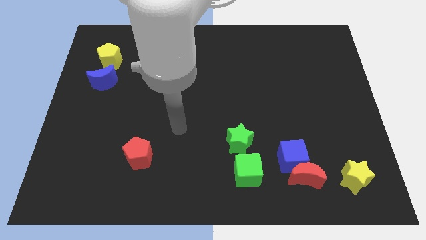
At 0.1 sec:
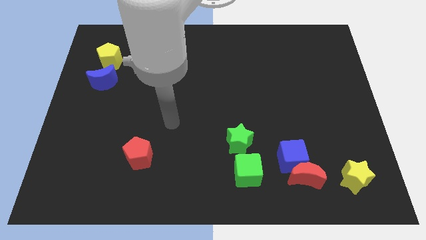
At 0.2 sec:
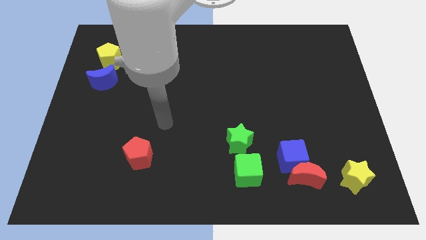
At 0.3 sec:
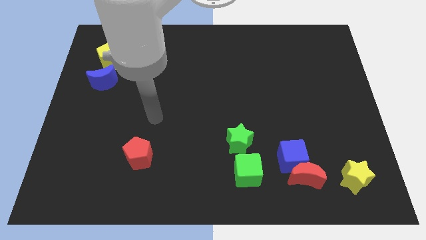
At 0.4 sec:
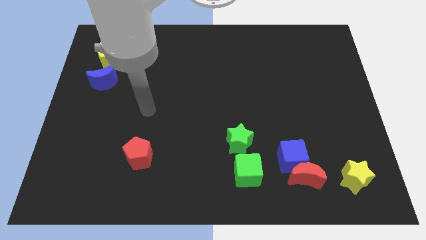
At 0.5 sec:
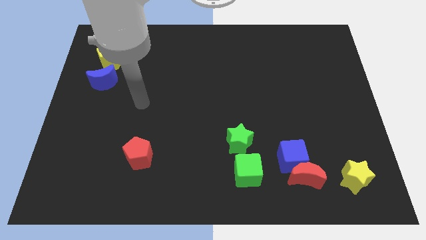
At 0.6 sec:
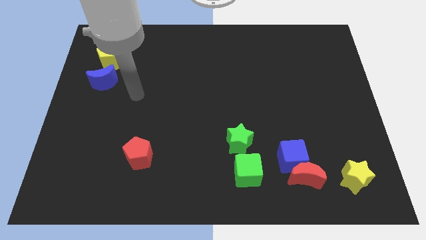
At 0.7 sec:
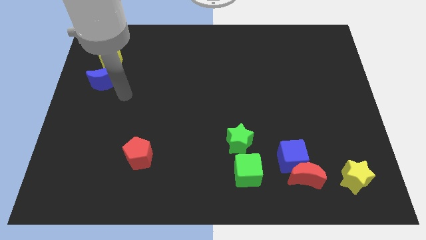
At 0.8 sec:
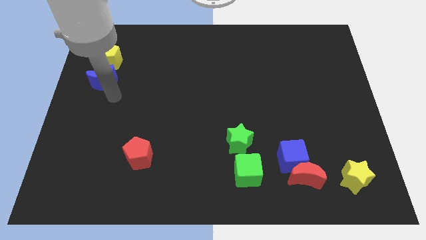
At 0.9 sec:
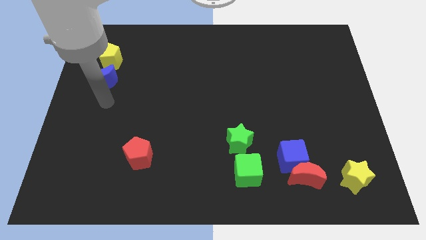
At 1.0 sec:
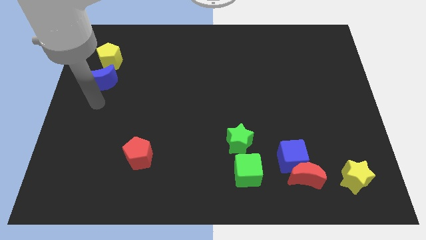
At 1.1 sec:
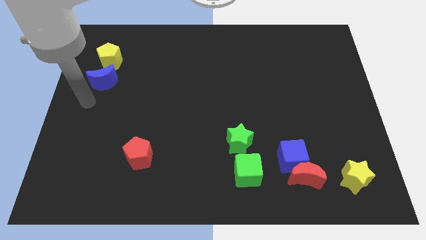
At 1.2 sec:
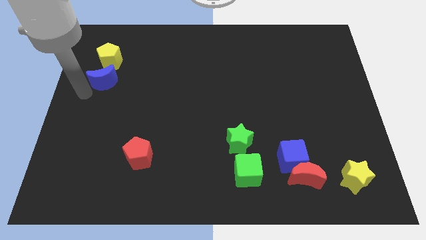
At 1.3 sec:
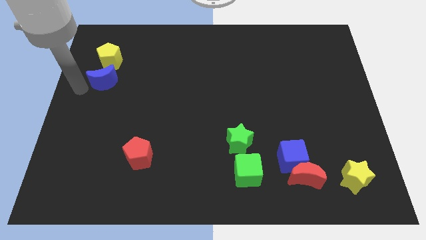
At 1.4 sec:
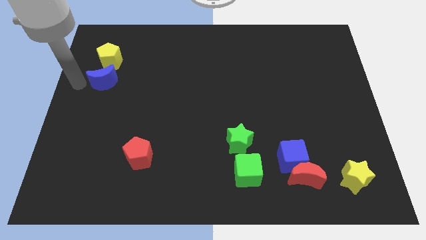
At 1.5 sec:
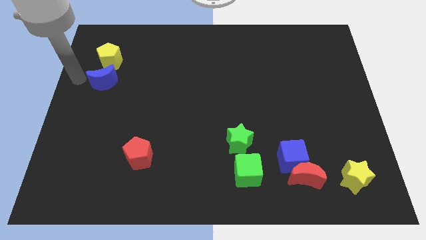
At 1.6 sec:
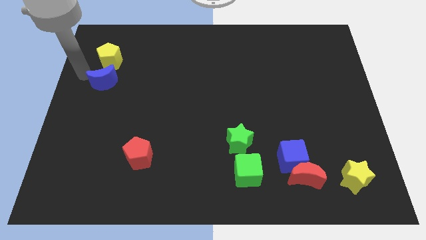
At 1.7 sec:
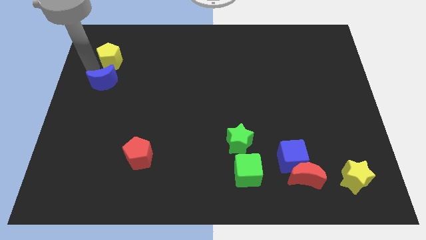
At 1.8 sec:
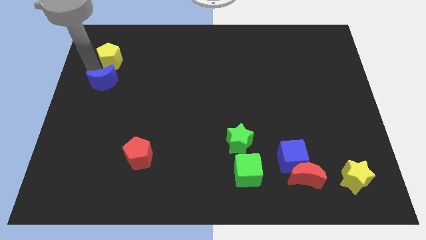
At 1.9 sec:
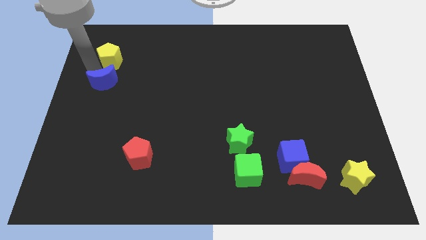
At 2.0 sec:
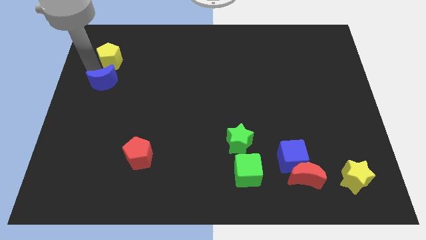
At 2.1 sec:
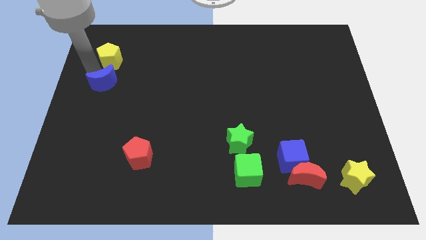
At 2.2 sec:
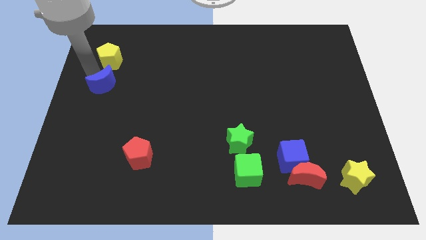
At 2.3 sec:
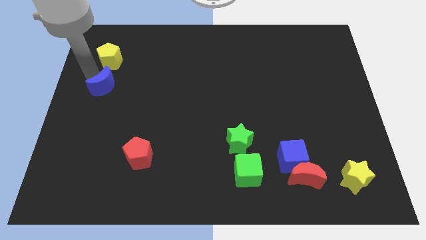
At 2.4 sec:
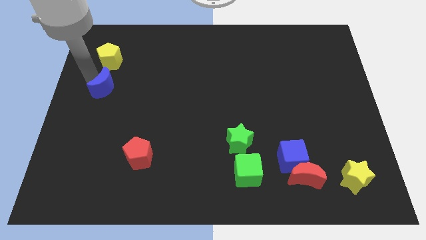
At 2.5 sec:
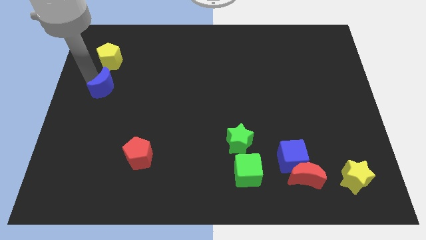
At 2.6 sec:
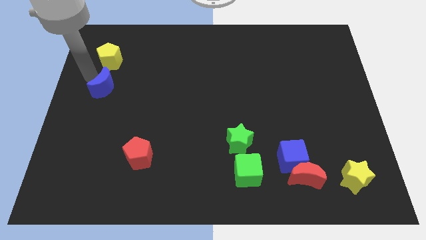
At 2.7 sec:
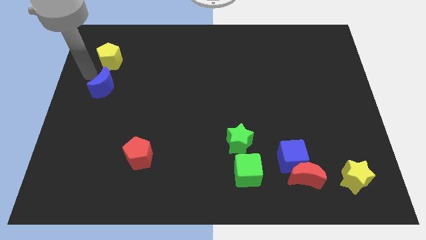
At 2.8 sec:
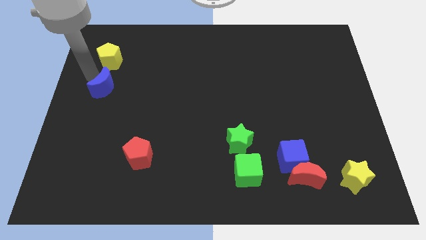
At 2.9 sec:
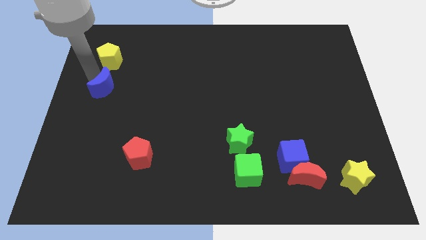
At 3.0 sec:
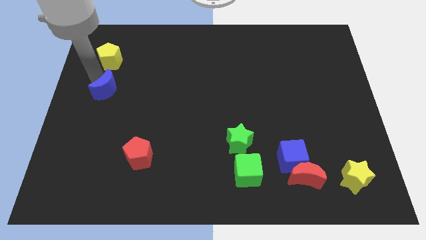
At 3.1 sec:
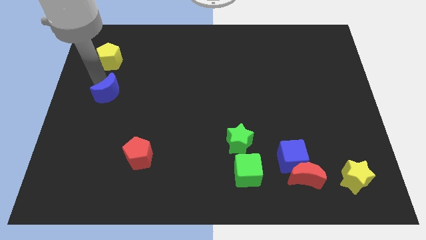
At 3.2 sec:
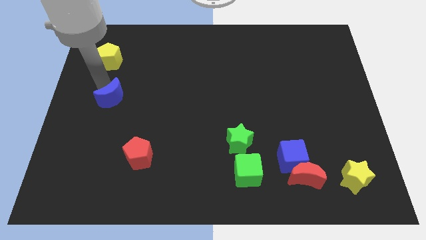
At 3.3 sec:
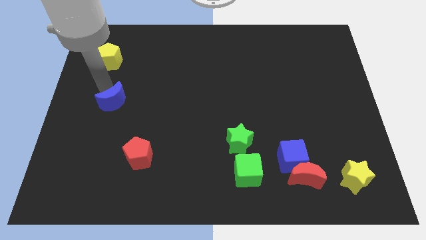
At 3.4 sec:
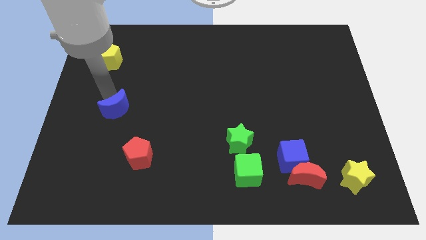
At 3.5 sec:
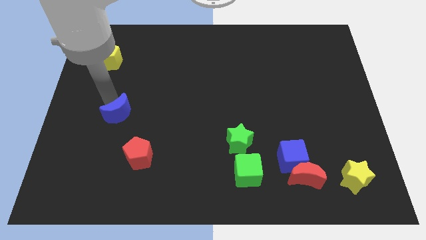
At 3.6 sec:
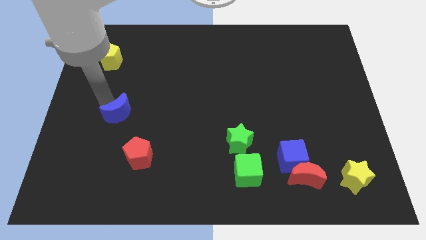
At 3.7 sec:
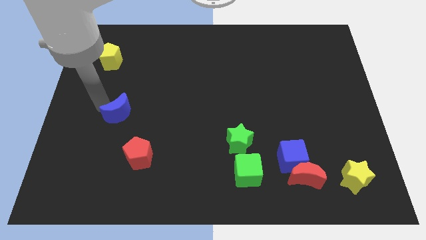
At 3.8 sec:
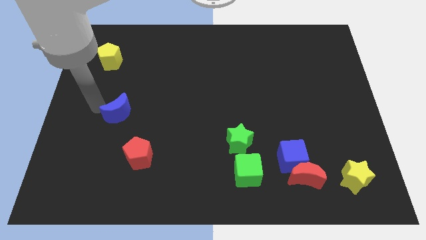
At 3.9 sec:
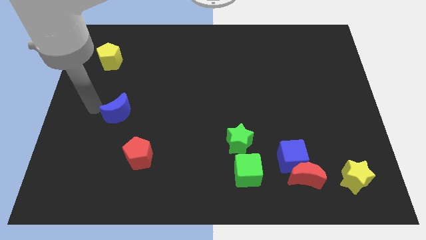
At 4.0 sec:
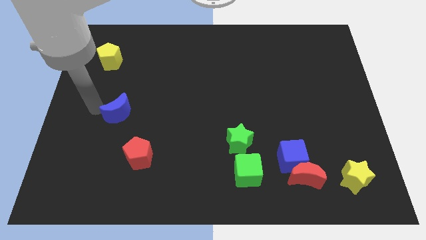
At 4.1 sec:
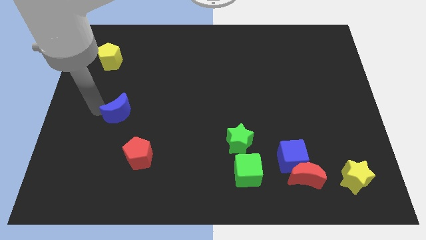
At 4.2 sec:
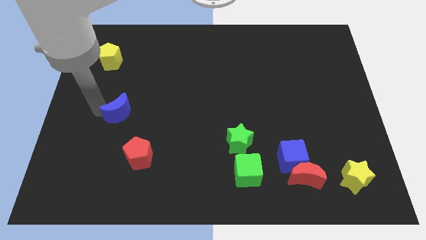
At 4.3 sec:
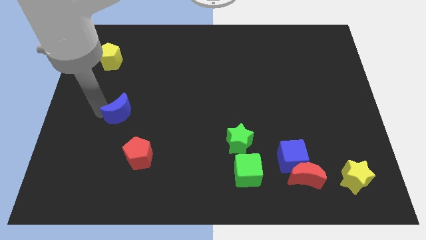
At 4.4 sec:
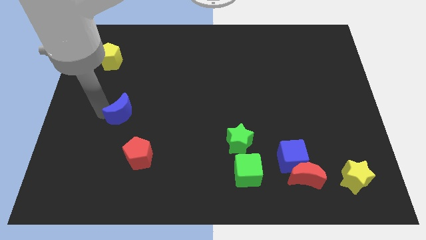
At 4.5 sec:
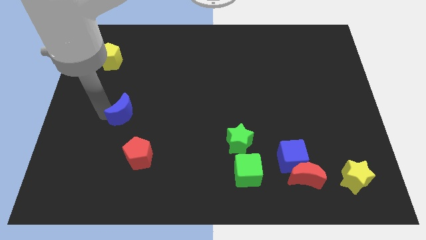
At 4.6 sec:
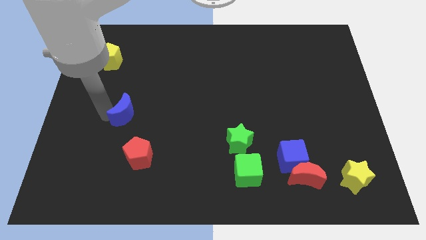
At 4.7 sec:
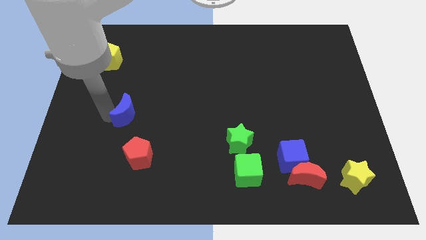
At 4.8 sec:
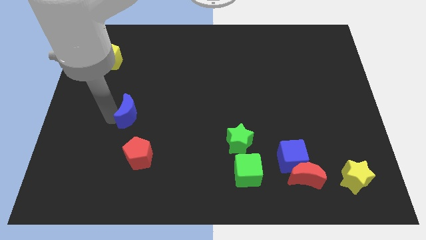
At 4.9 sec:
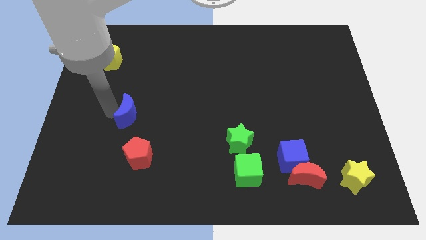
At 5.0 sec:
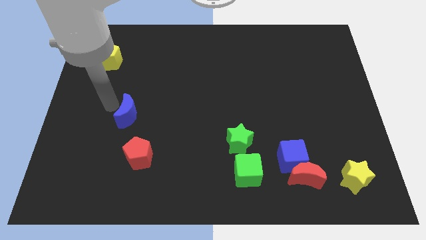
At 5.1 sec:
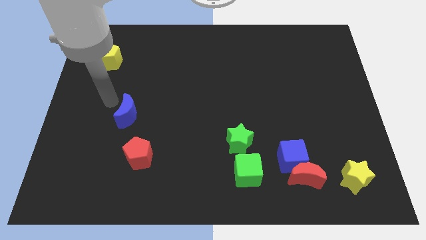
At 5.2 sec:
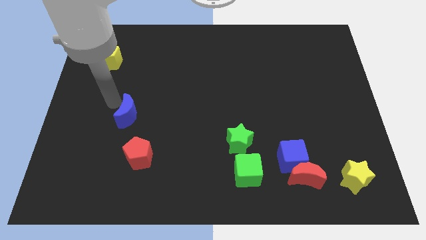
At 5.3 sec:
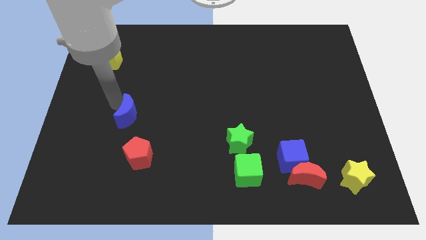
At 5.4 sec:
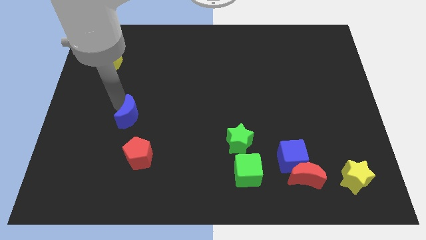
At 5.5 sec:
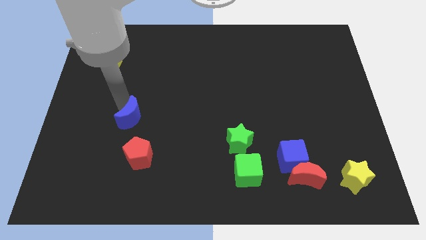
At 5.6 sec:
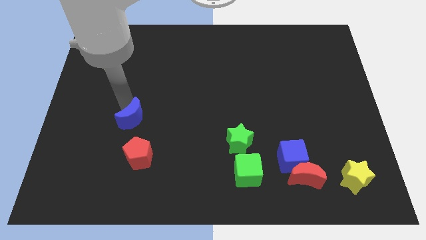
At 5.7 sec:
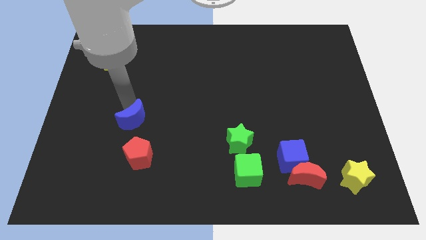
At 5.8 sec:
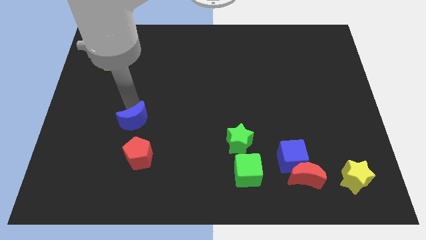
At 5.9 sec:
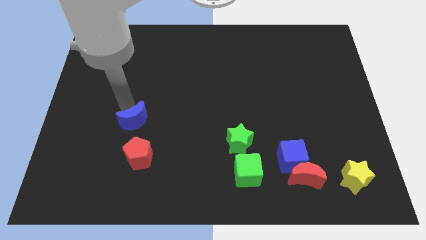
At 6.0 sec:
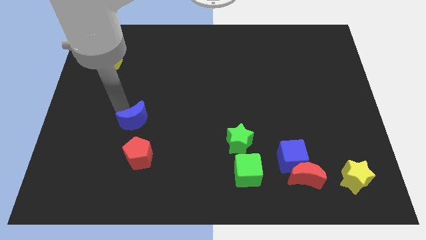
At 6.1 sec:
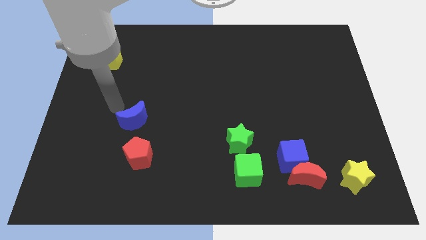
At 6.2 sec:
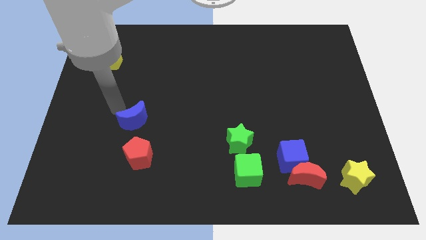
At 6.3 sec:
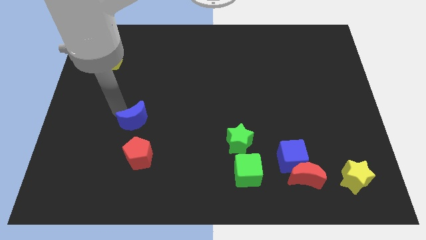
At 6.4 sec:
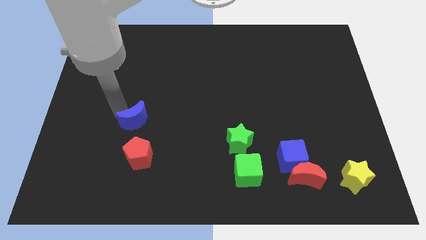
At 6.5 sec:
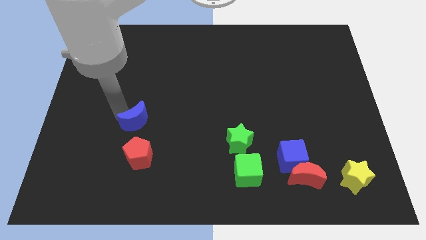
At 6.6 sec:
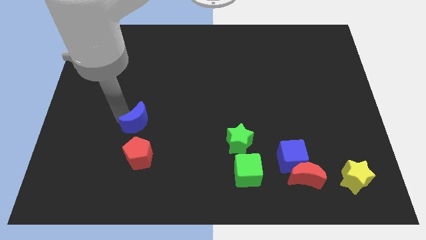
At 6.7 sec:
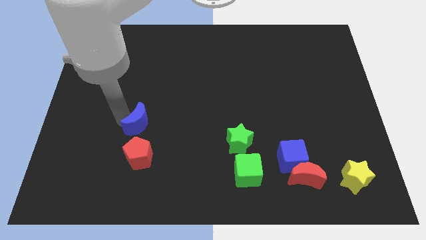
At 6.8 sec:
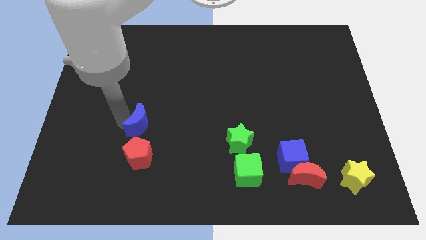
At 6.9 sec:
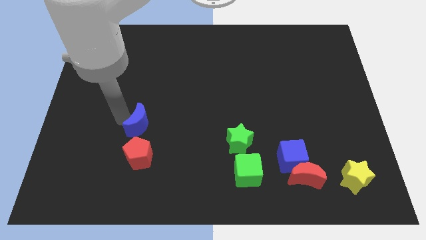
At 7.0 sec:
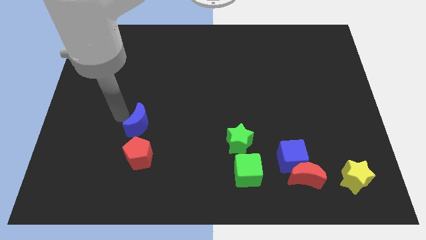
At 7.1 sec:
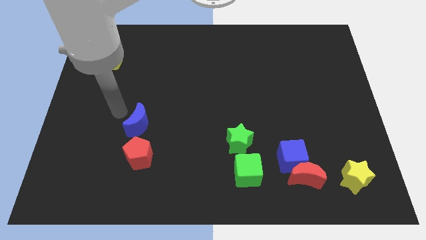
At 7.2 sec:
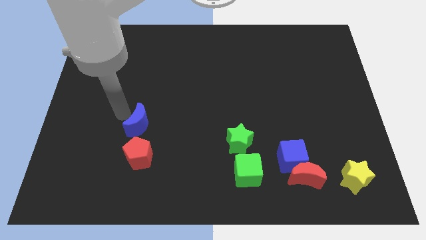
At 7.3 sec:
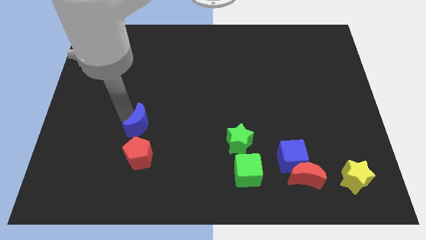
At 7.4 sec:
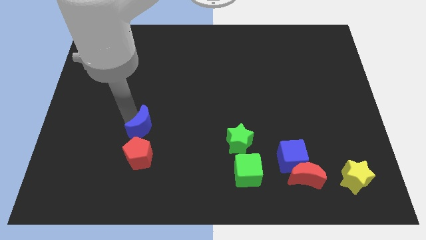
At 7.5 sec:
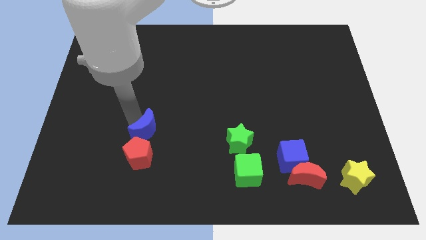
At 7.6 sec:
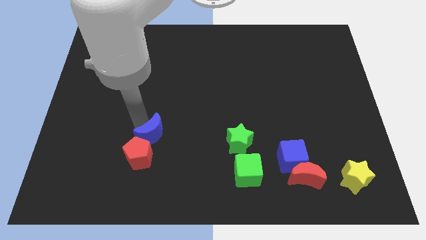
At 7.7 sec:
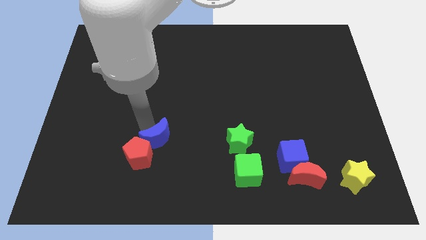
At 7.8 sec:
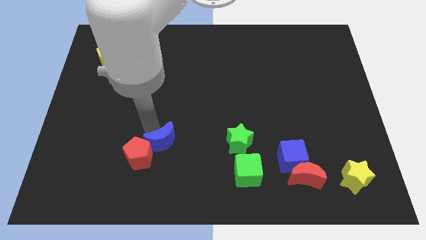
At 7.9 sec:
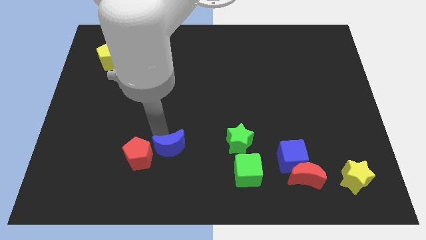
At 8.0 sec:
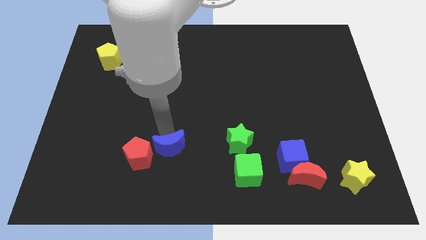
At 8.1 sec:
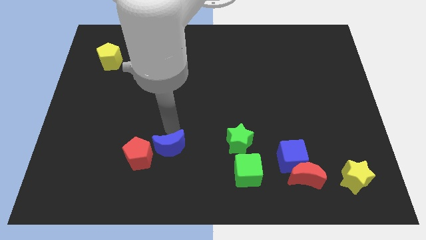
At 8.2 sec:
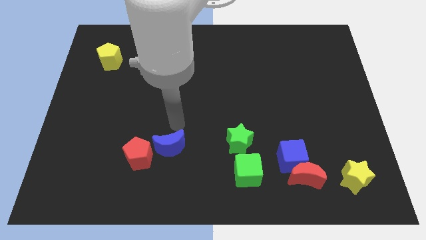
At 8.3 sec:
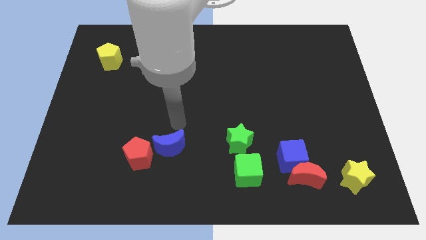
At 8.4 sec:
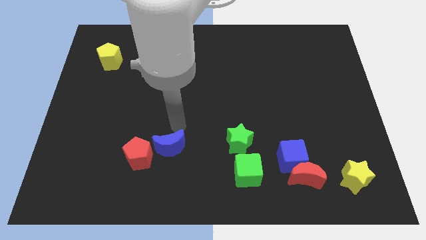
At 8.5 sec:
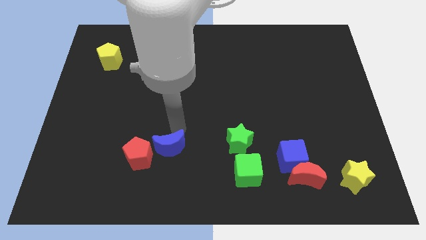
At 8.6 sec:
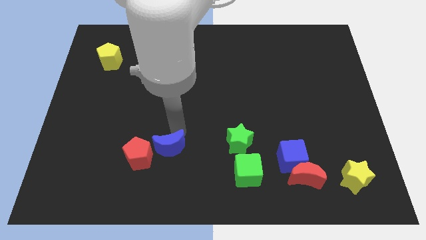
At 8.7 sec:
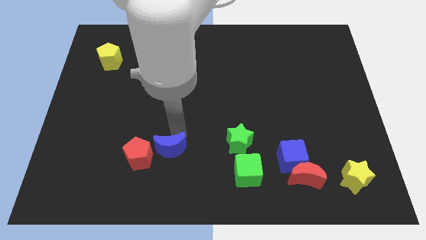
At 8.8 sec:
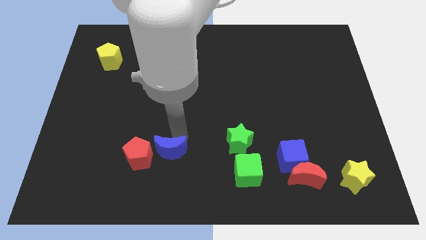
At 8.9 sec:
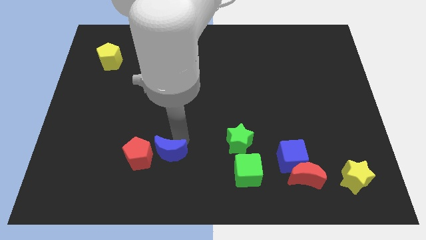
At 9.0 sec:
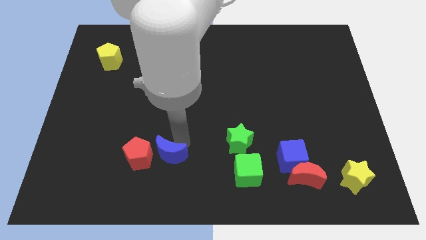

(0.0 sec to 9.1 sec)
push the blue moon diagonally down and to the right of the red pentagon
